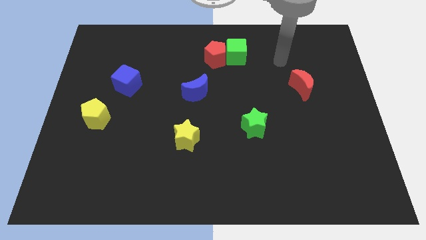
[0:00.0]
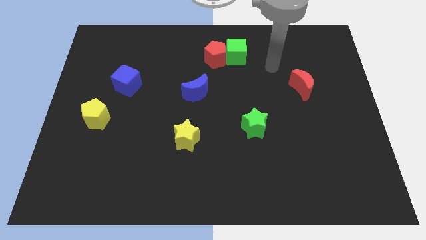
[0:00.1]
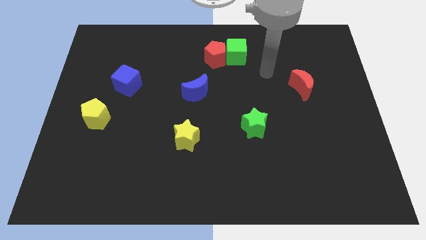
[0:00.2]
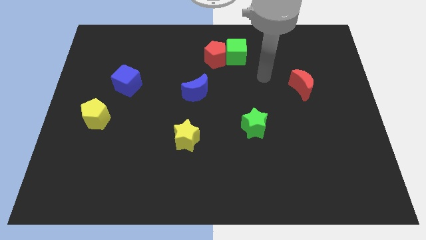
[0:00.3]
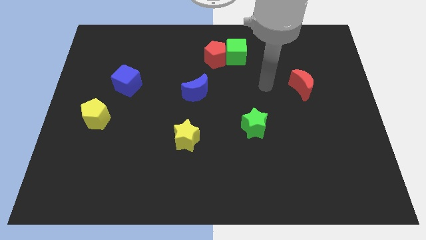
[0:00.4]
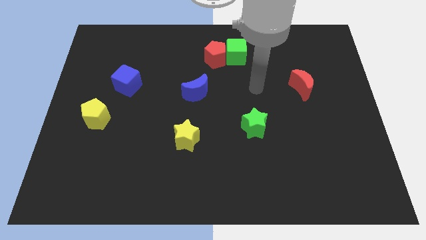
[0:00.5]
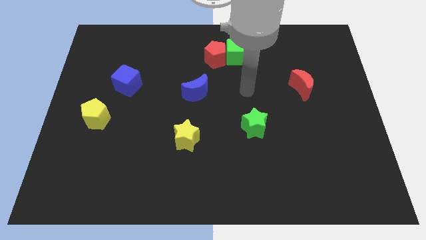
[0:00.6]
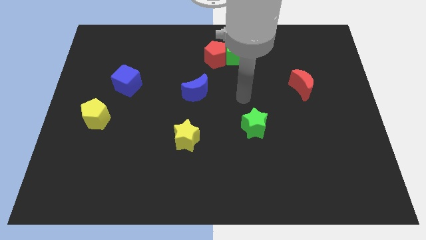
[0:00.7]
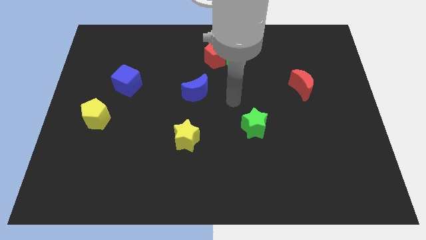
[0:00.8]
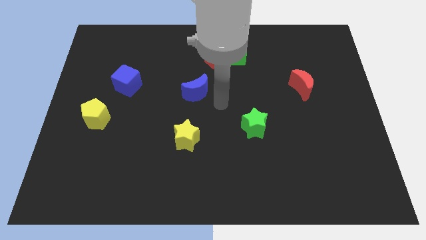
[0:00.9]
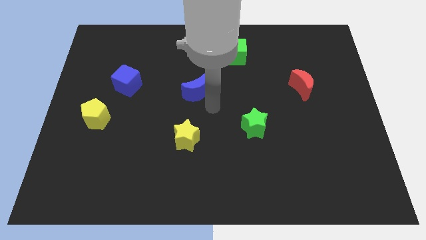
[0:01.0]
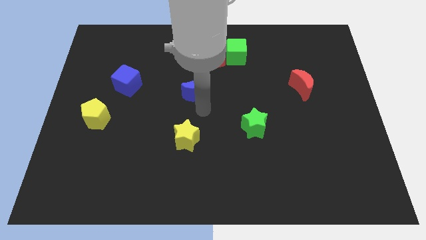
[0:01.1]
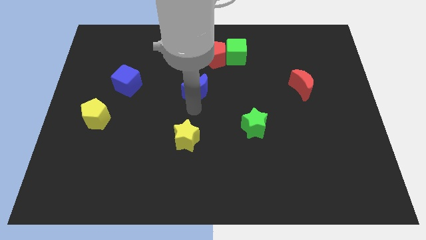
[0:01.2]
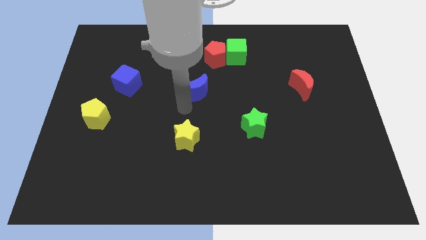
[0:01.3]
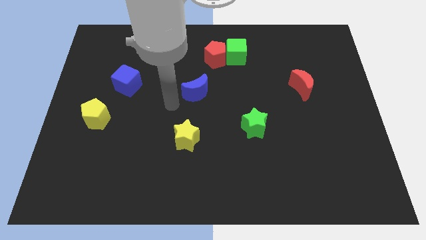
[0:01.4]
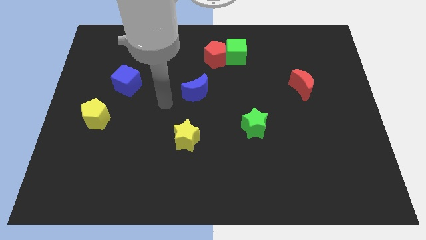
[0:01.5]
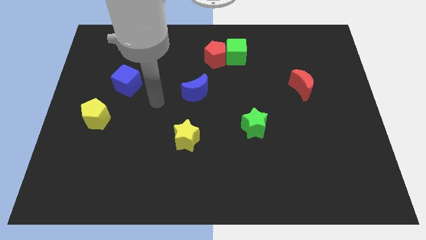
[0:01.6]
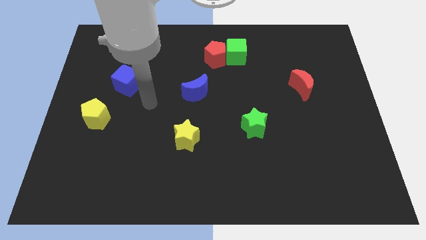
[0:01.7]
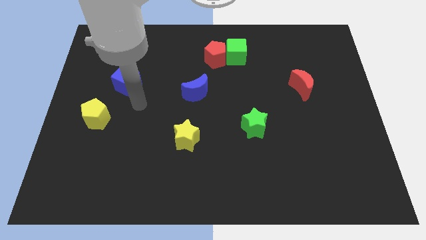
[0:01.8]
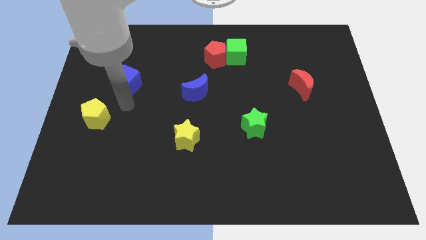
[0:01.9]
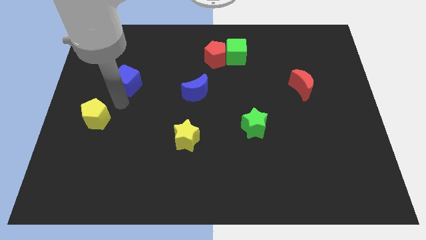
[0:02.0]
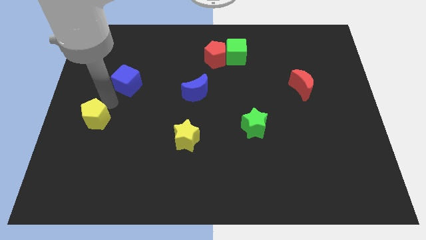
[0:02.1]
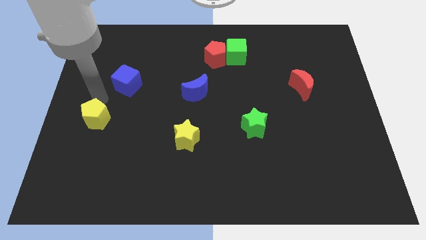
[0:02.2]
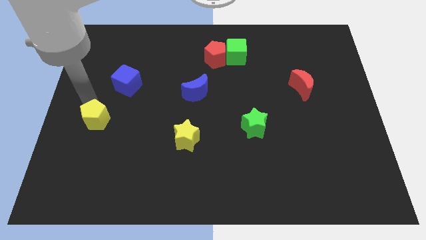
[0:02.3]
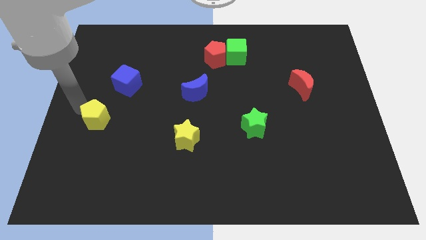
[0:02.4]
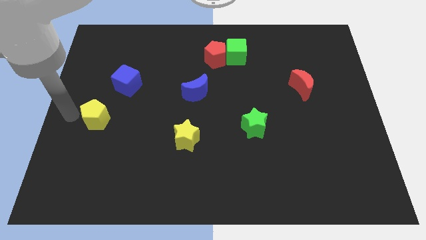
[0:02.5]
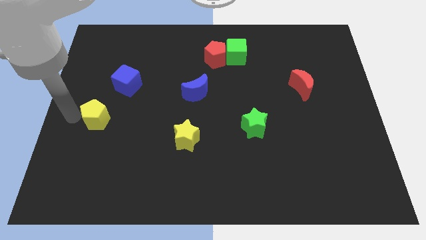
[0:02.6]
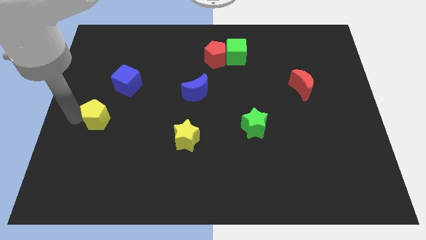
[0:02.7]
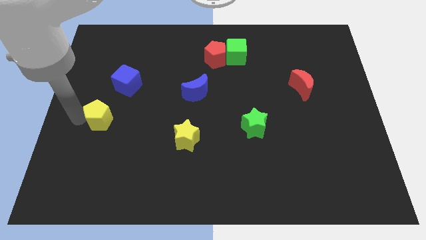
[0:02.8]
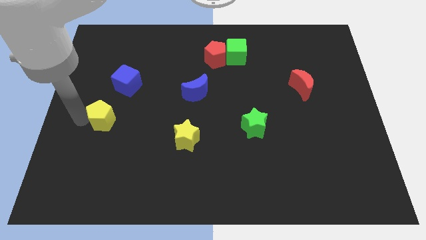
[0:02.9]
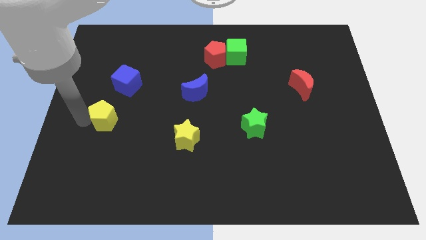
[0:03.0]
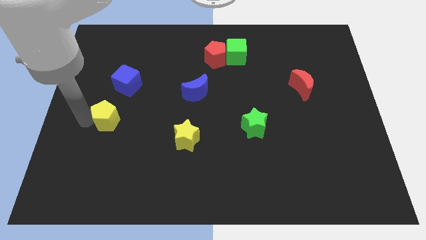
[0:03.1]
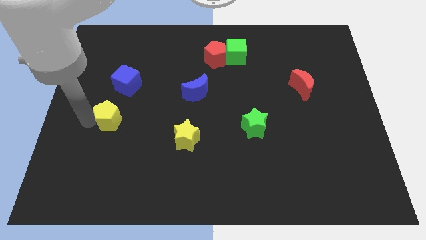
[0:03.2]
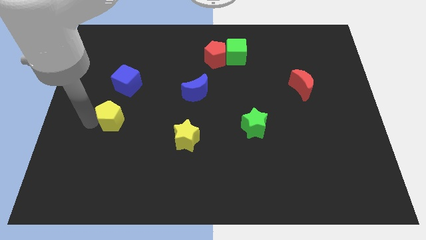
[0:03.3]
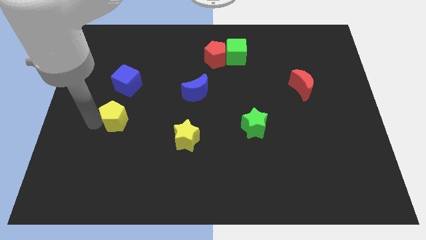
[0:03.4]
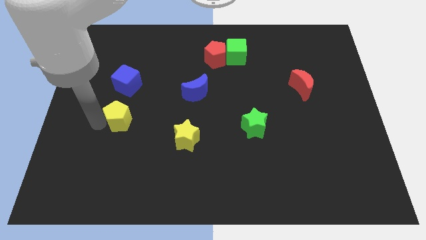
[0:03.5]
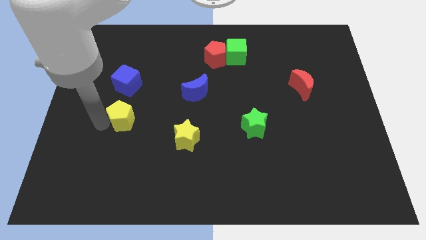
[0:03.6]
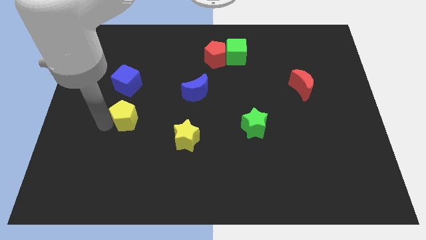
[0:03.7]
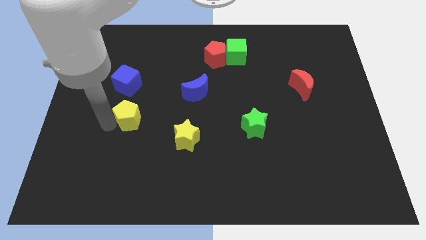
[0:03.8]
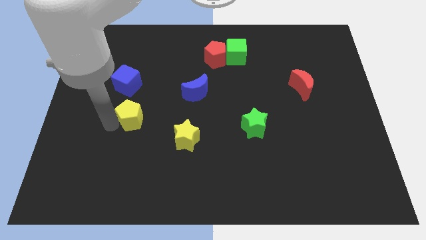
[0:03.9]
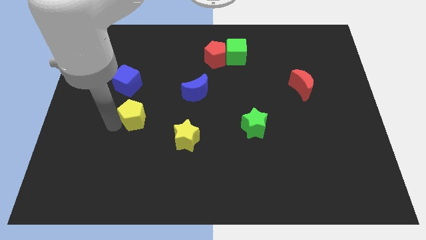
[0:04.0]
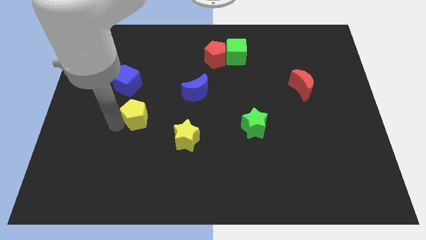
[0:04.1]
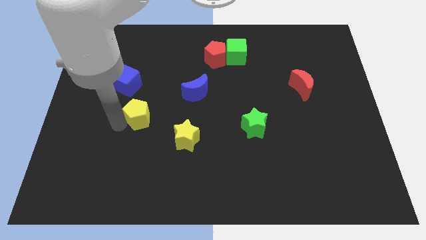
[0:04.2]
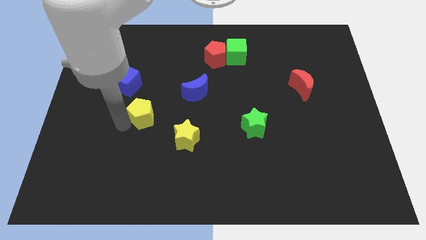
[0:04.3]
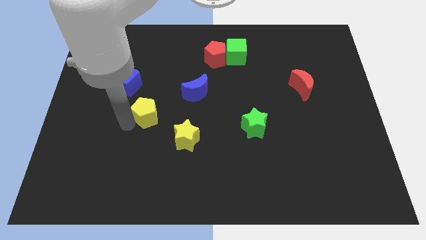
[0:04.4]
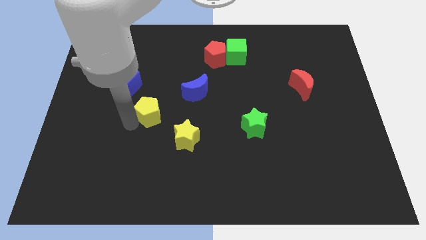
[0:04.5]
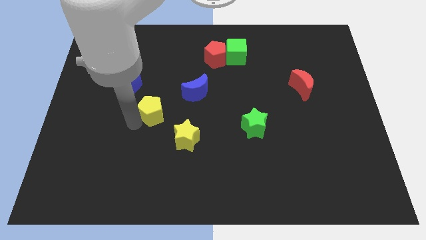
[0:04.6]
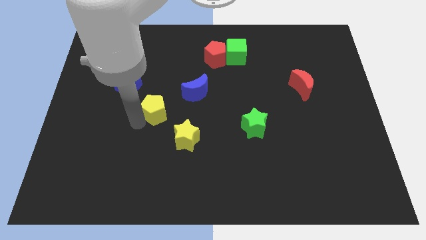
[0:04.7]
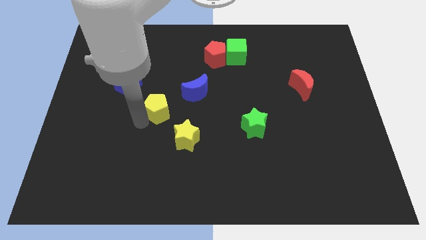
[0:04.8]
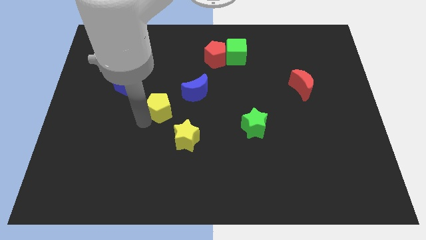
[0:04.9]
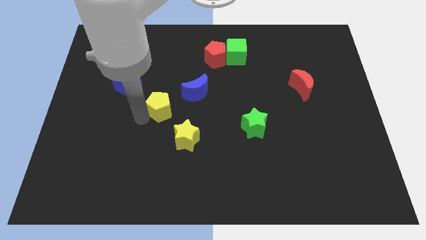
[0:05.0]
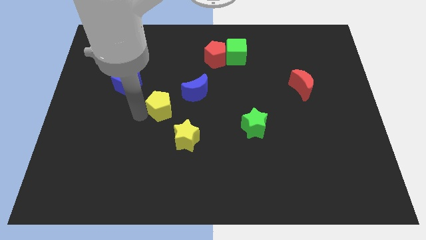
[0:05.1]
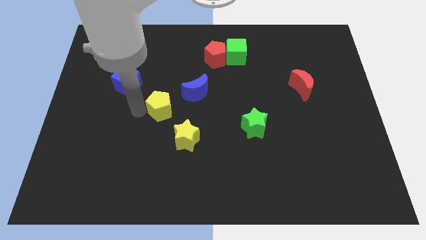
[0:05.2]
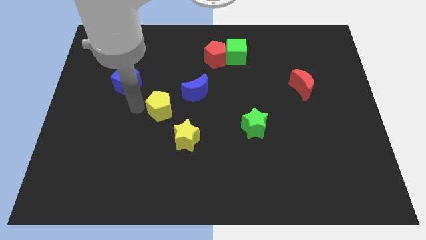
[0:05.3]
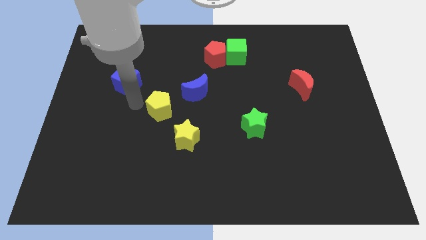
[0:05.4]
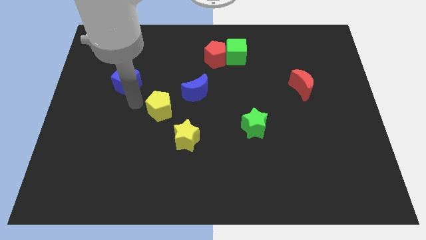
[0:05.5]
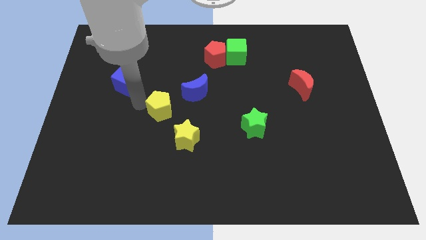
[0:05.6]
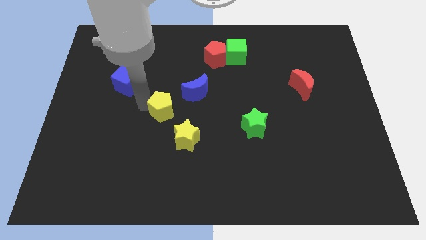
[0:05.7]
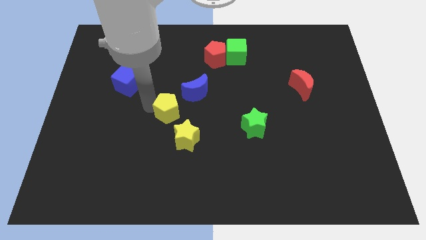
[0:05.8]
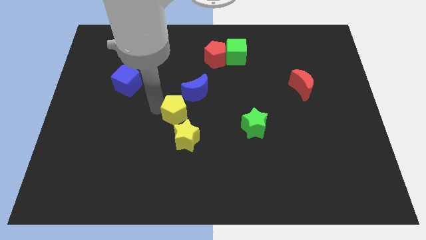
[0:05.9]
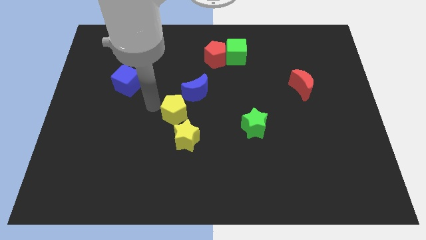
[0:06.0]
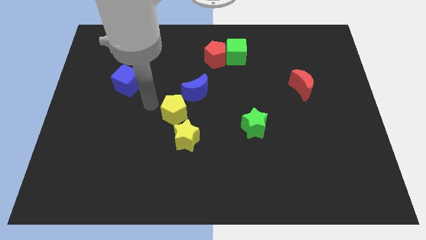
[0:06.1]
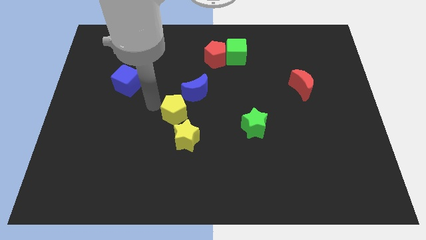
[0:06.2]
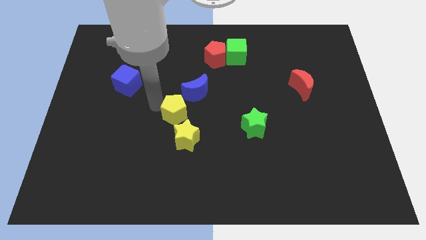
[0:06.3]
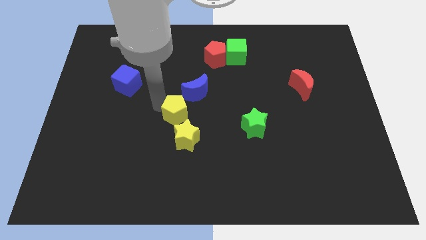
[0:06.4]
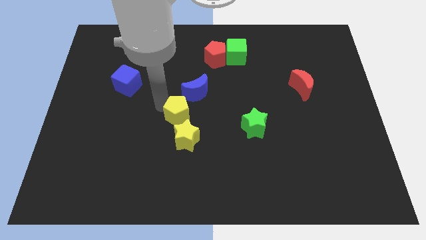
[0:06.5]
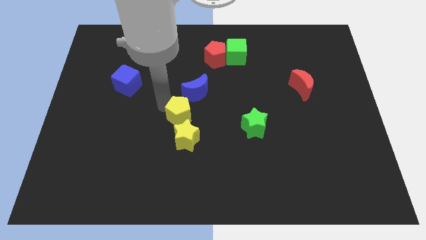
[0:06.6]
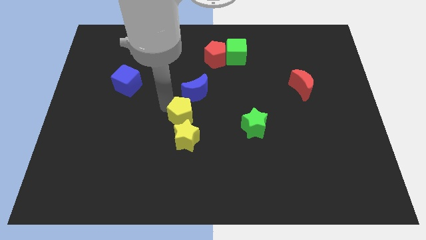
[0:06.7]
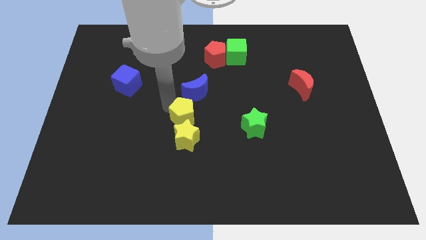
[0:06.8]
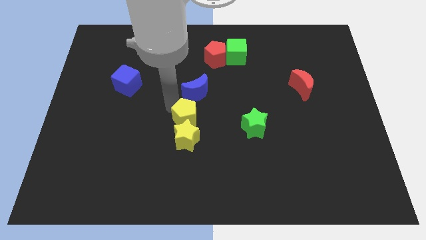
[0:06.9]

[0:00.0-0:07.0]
move the yellow pentagon to the left of the green star
